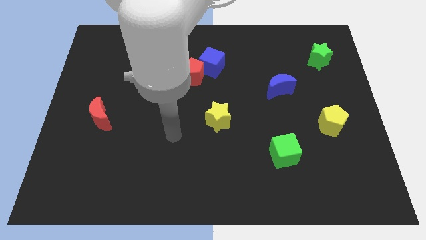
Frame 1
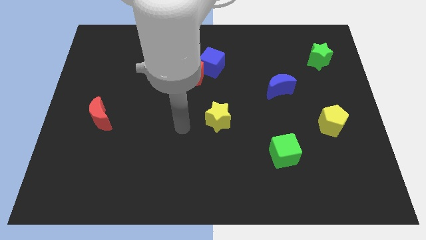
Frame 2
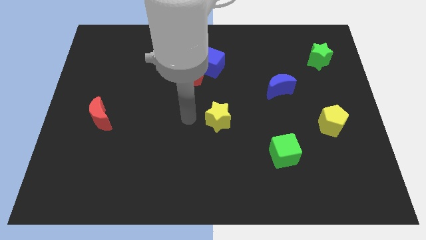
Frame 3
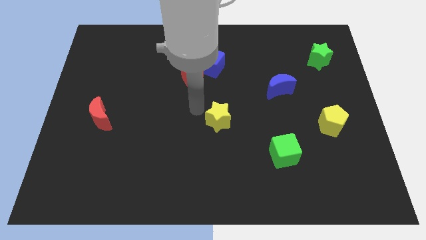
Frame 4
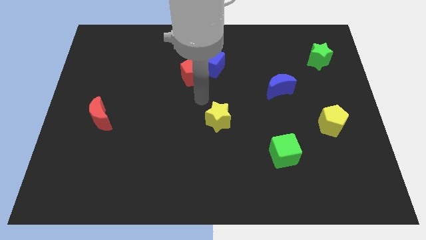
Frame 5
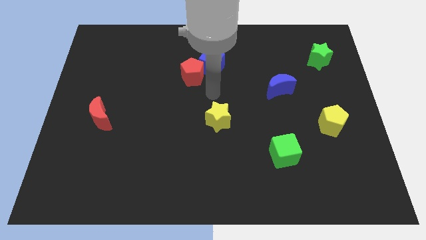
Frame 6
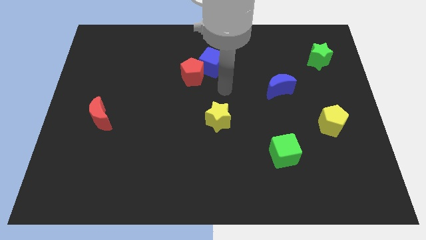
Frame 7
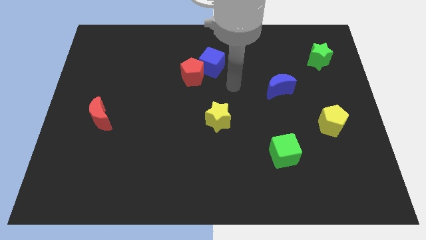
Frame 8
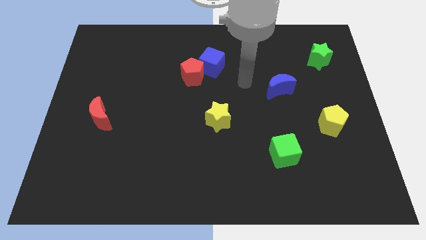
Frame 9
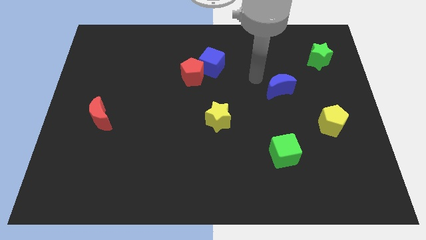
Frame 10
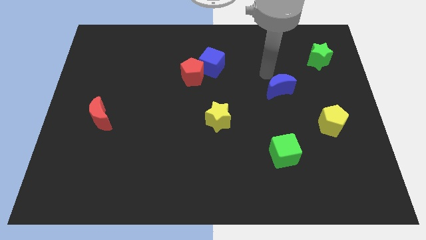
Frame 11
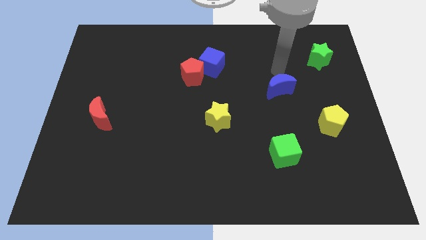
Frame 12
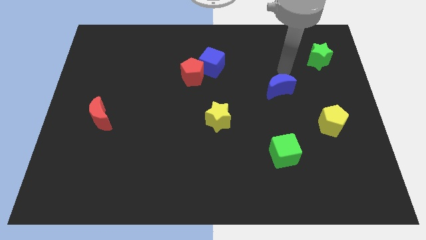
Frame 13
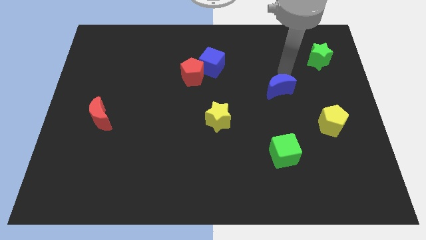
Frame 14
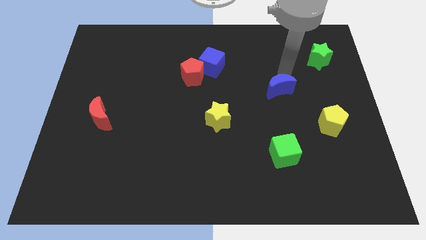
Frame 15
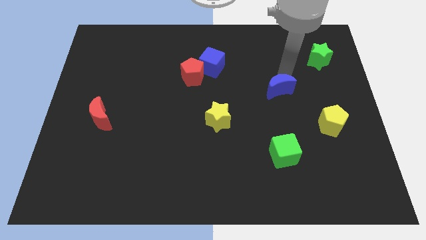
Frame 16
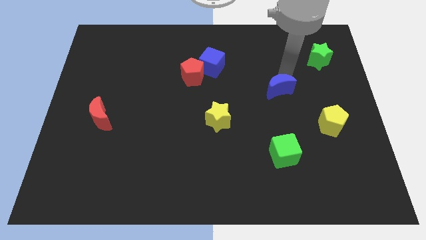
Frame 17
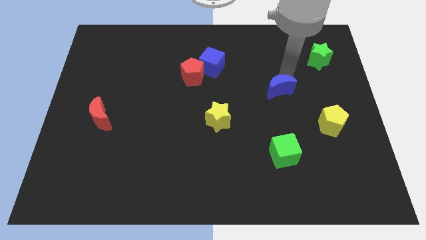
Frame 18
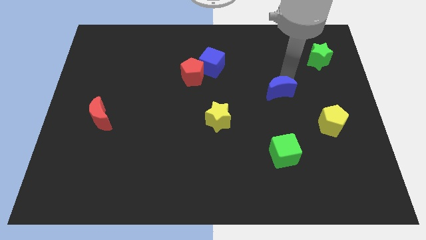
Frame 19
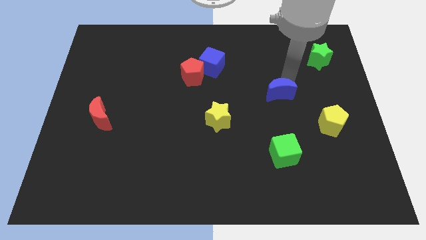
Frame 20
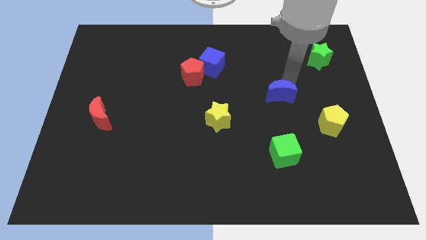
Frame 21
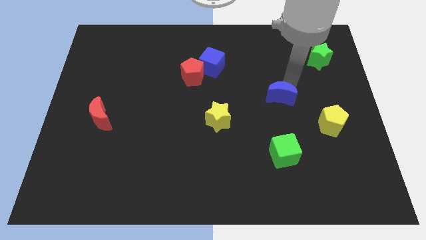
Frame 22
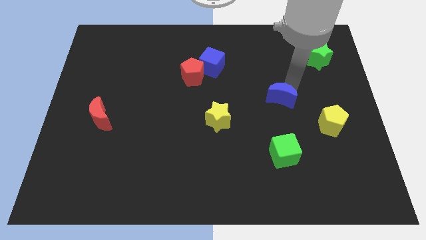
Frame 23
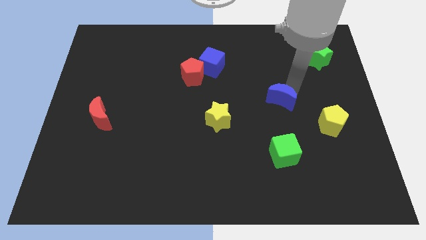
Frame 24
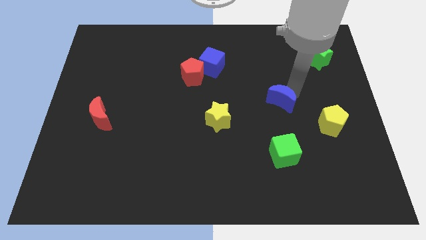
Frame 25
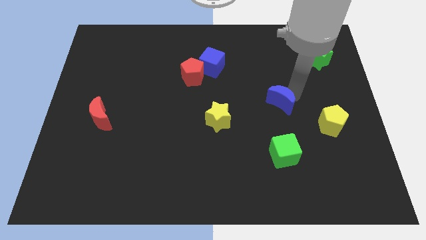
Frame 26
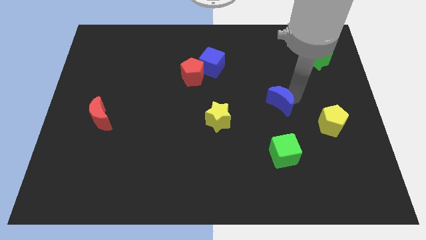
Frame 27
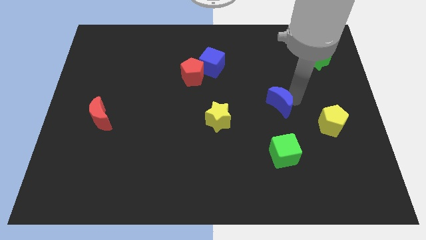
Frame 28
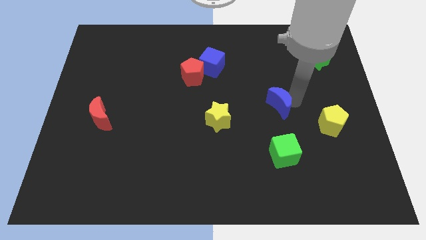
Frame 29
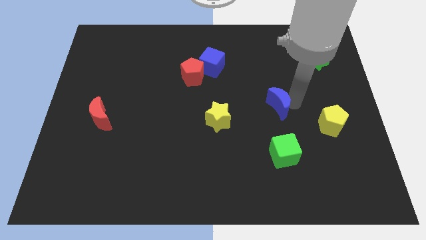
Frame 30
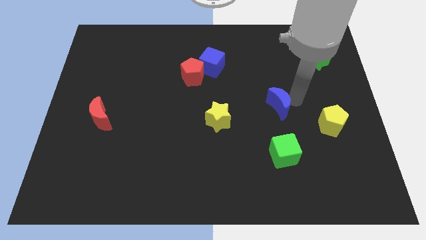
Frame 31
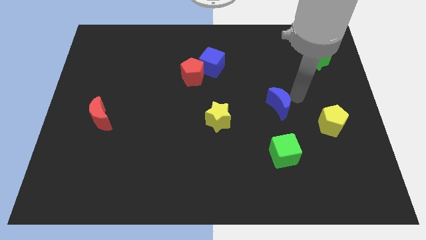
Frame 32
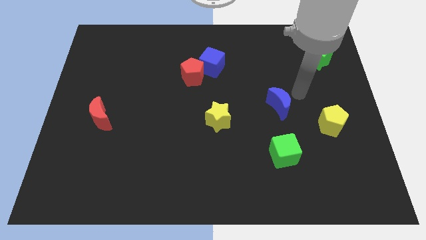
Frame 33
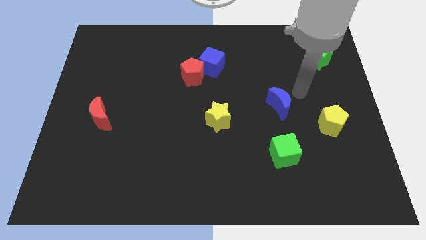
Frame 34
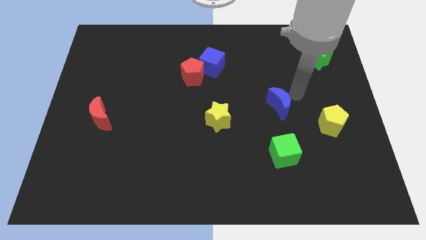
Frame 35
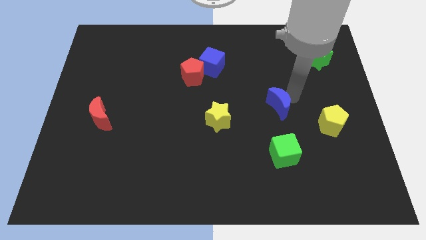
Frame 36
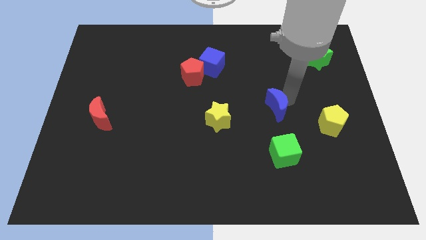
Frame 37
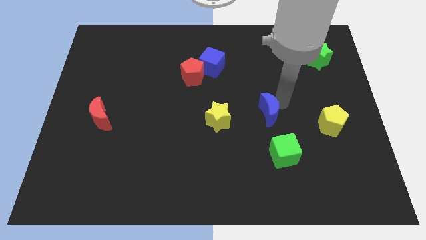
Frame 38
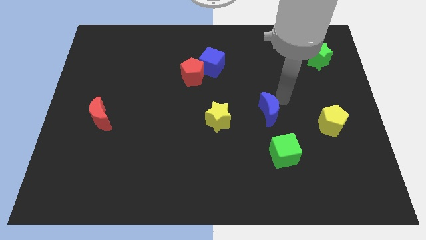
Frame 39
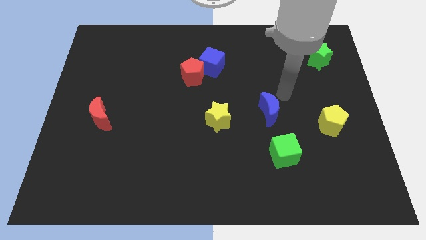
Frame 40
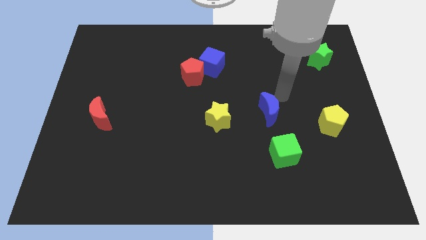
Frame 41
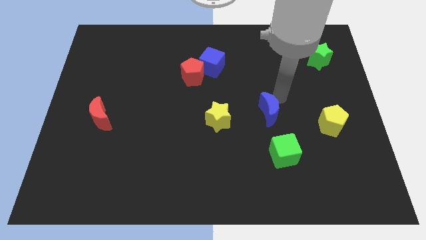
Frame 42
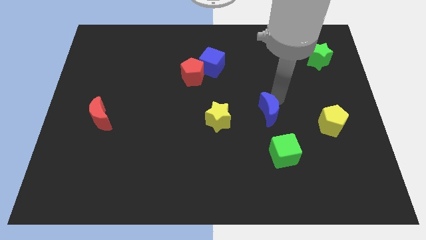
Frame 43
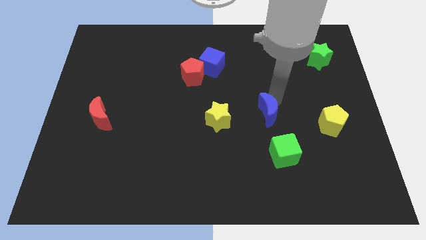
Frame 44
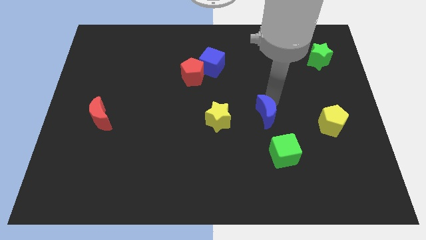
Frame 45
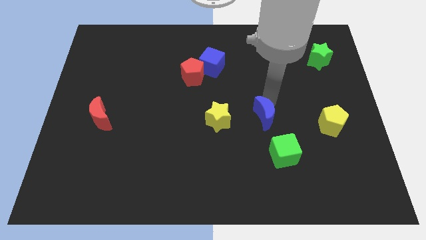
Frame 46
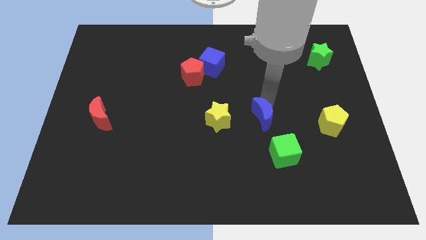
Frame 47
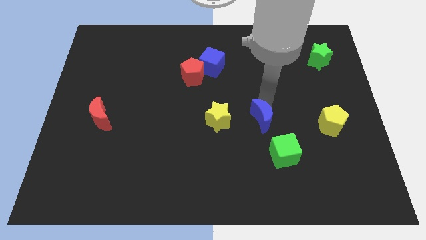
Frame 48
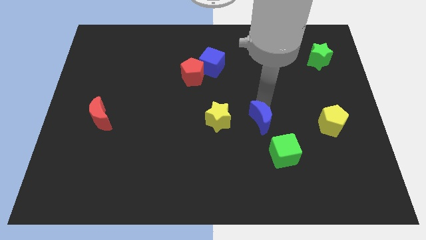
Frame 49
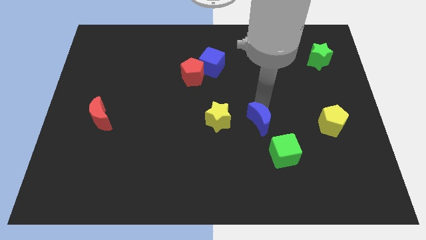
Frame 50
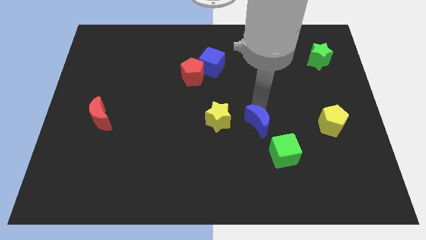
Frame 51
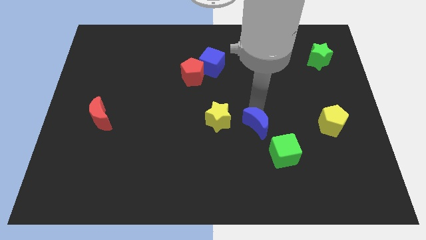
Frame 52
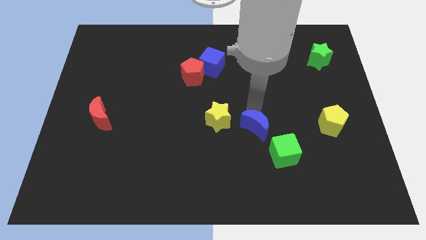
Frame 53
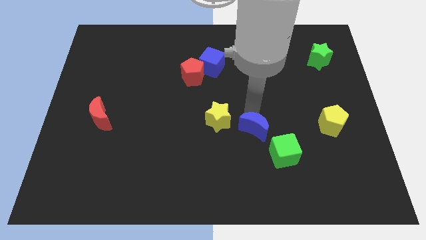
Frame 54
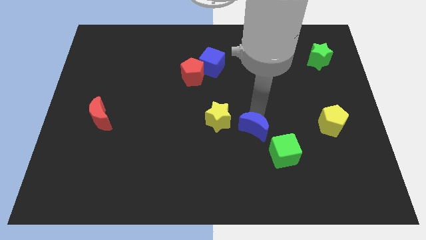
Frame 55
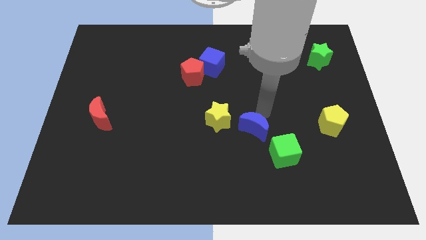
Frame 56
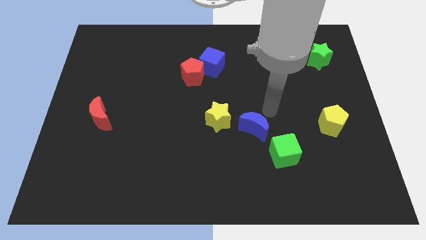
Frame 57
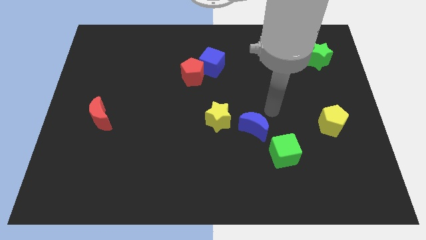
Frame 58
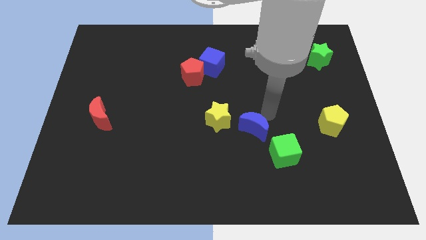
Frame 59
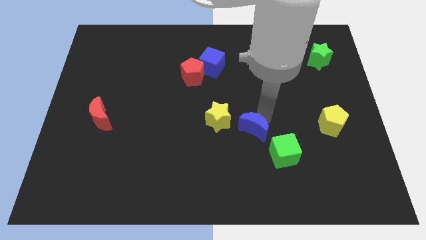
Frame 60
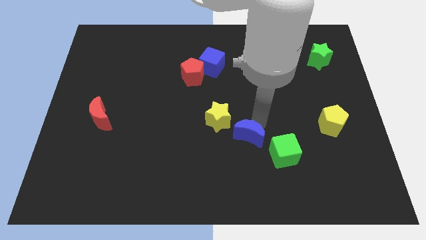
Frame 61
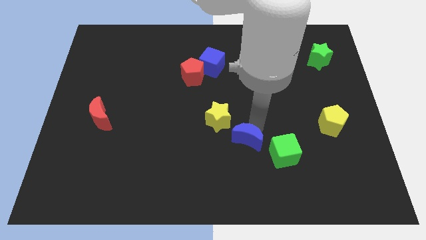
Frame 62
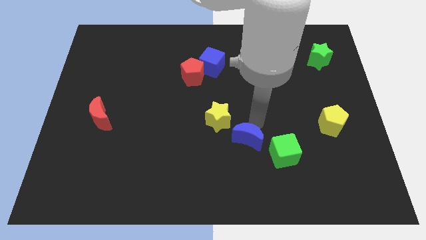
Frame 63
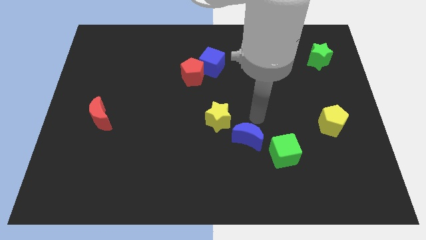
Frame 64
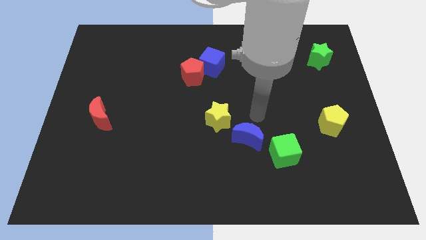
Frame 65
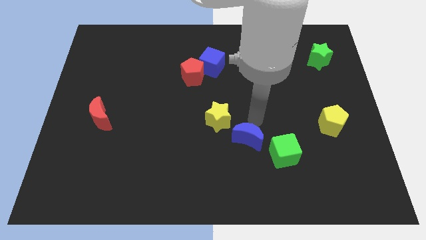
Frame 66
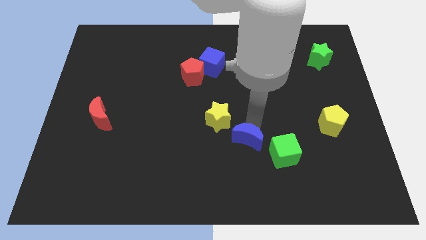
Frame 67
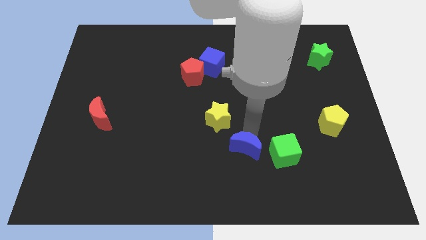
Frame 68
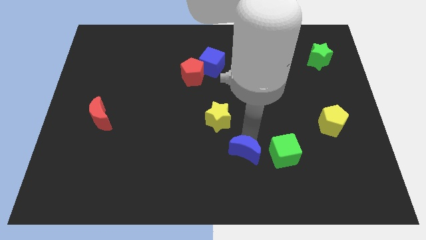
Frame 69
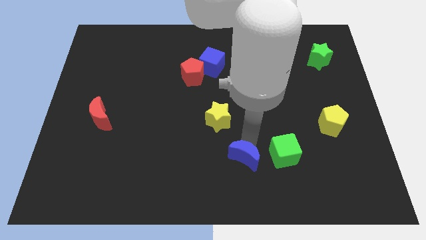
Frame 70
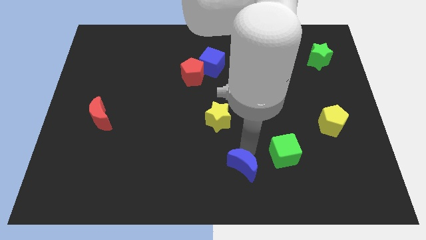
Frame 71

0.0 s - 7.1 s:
slide the blue moon to the bottom side
